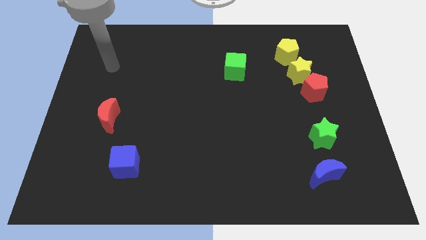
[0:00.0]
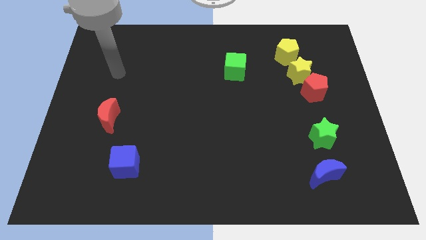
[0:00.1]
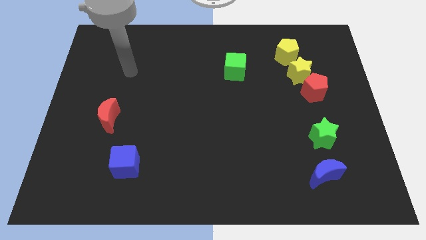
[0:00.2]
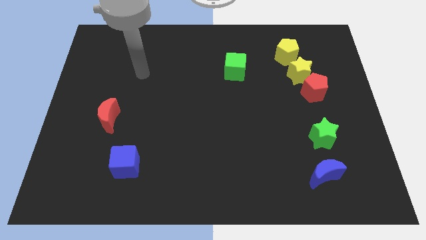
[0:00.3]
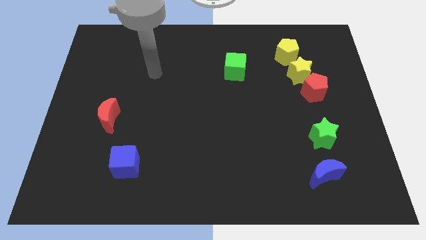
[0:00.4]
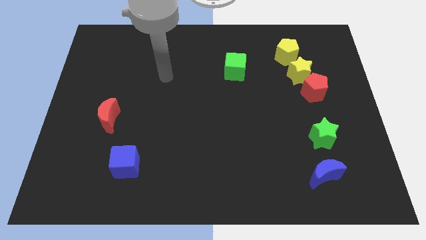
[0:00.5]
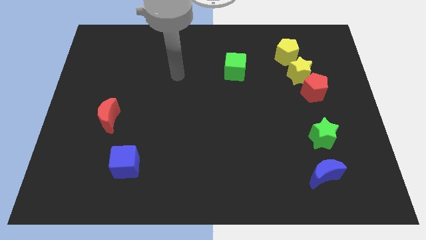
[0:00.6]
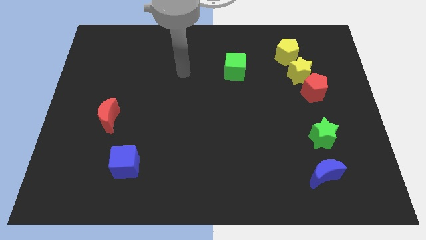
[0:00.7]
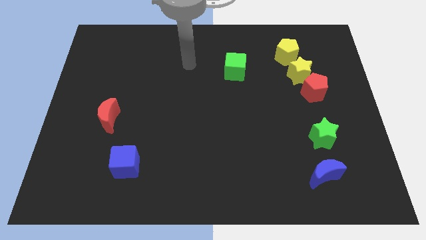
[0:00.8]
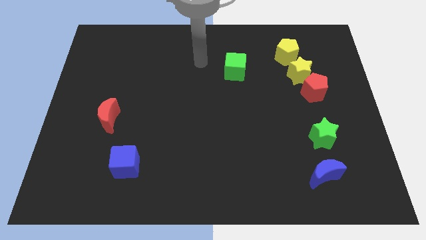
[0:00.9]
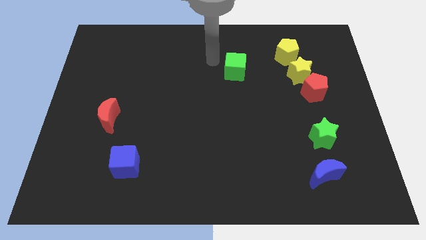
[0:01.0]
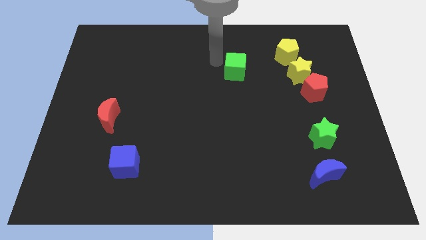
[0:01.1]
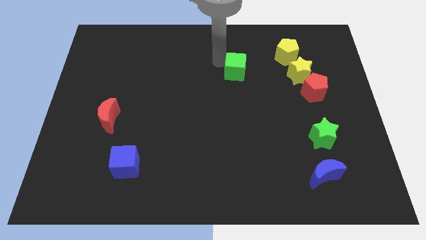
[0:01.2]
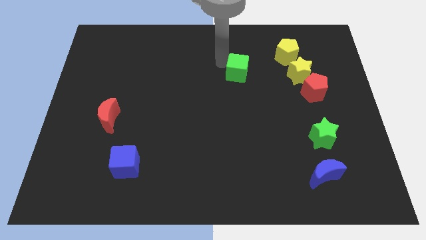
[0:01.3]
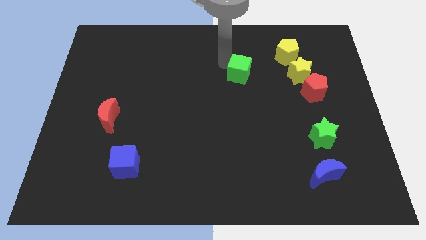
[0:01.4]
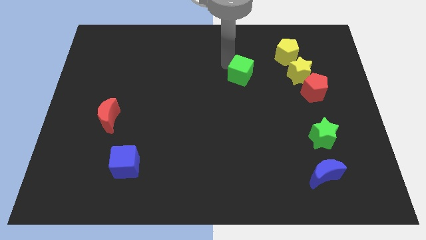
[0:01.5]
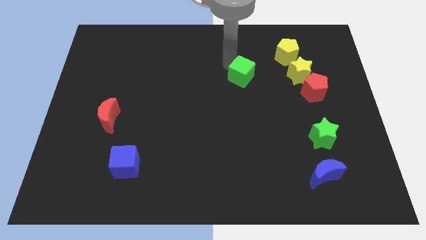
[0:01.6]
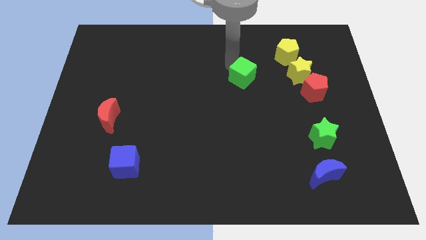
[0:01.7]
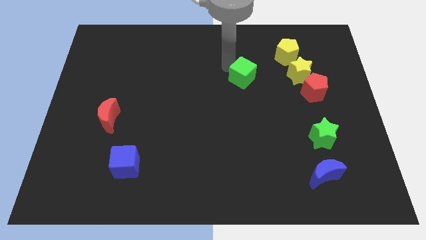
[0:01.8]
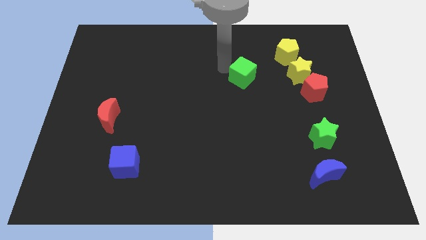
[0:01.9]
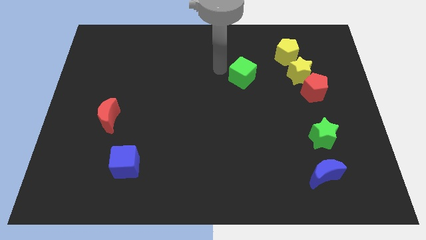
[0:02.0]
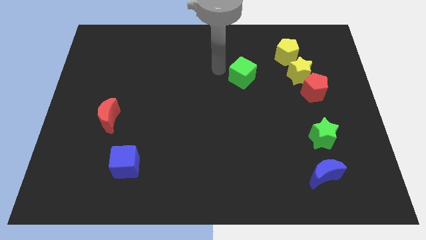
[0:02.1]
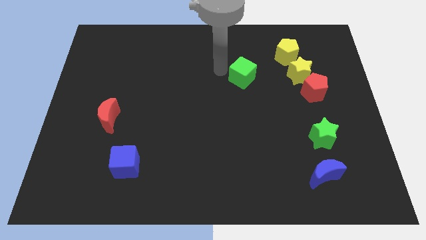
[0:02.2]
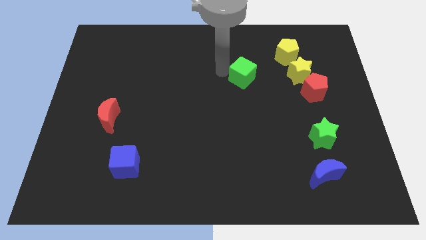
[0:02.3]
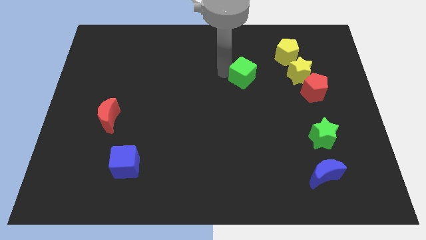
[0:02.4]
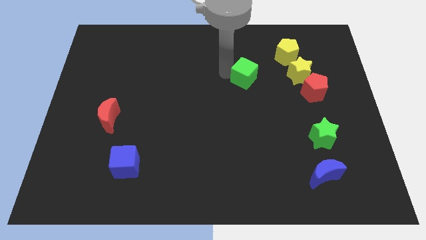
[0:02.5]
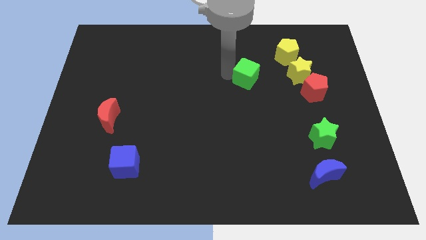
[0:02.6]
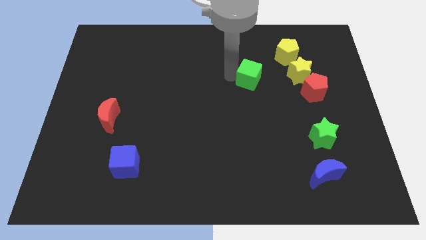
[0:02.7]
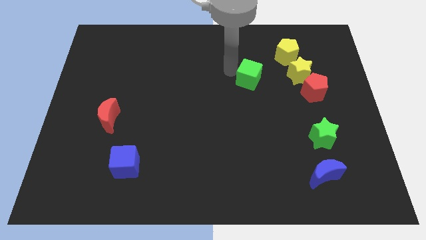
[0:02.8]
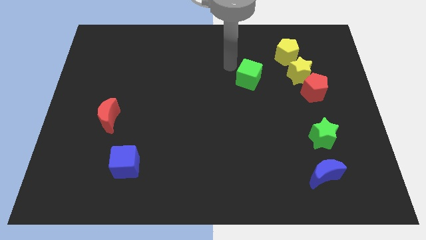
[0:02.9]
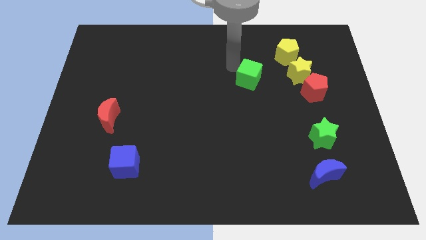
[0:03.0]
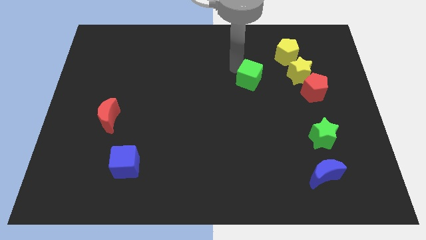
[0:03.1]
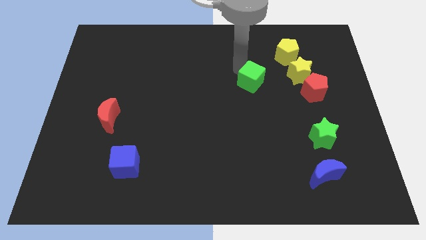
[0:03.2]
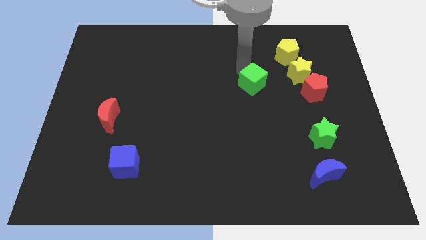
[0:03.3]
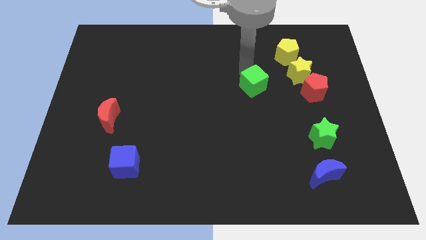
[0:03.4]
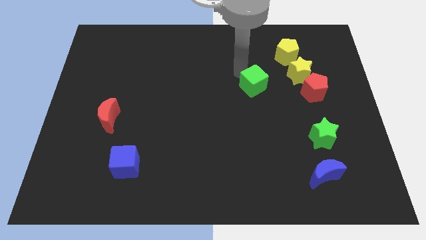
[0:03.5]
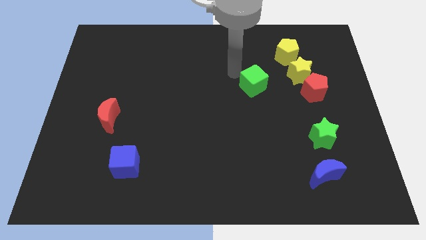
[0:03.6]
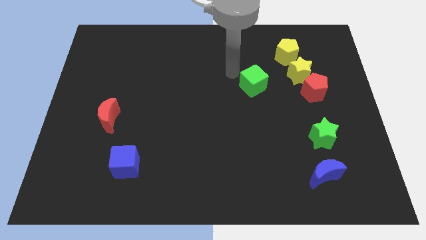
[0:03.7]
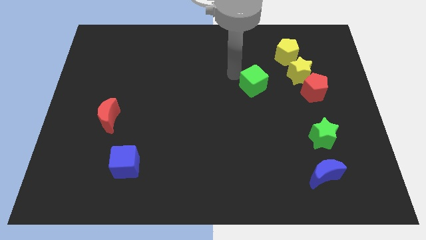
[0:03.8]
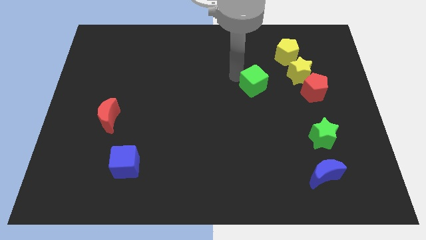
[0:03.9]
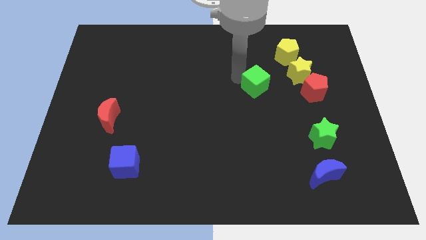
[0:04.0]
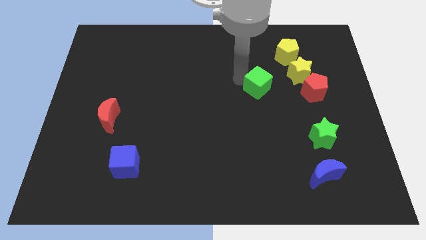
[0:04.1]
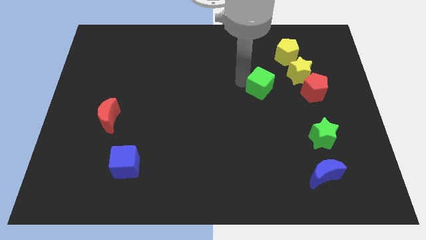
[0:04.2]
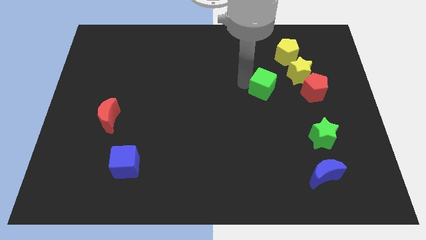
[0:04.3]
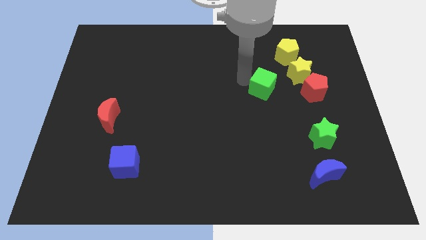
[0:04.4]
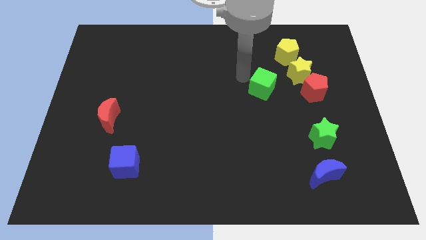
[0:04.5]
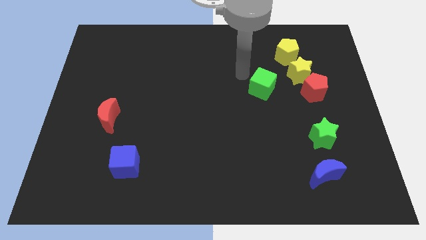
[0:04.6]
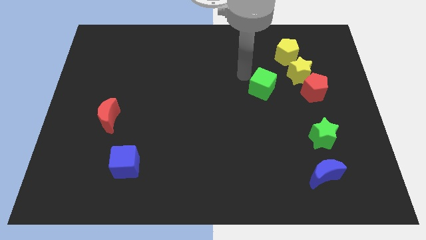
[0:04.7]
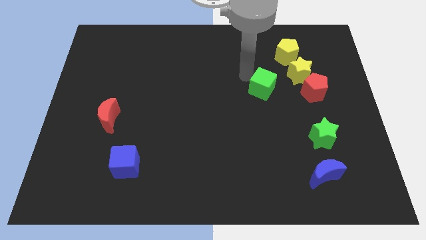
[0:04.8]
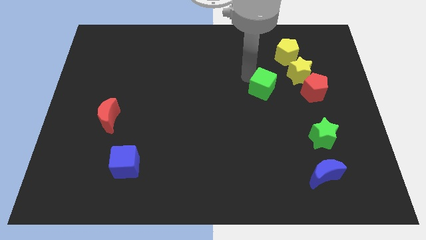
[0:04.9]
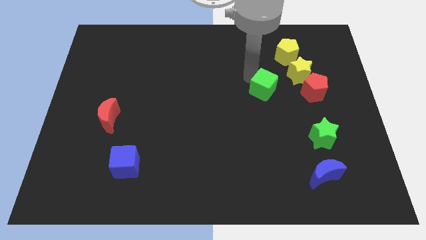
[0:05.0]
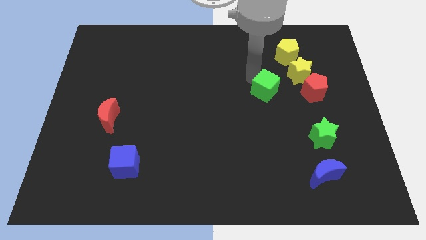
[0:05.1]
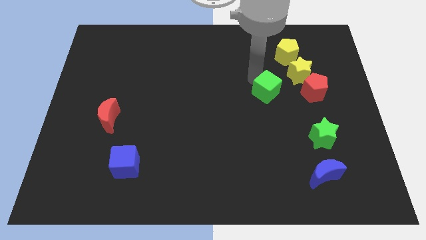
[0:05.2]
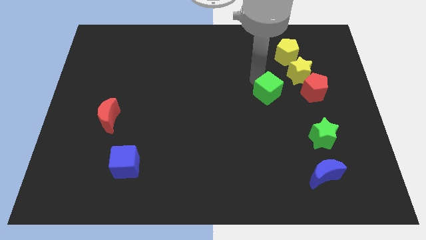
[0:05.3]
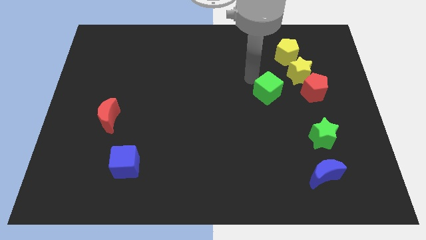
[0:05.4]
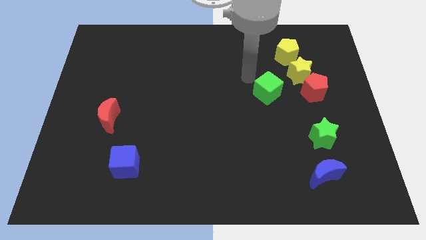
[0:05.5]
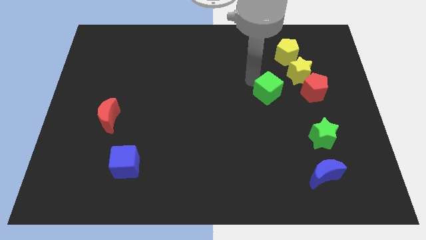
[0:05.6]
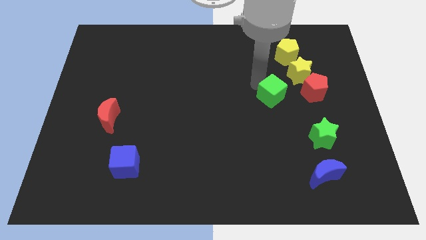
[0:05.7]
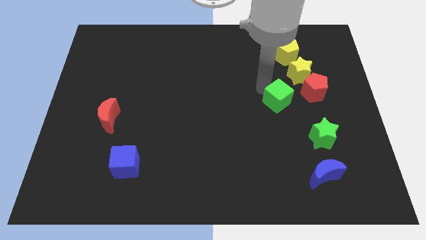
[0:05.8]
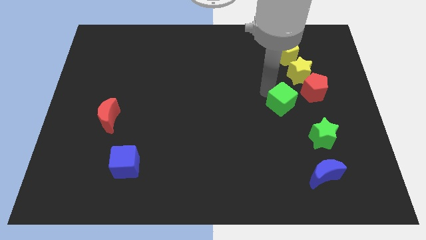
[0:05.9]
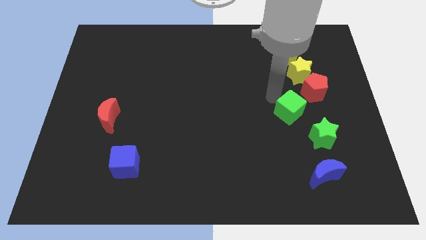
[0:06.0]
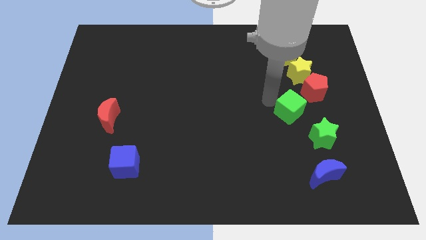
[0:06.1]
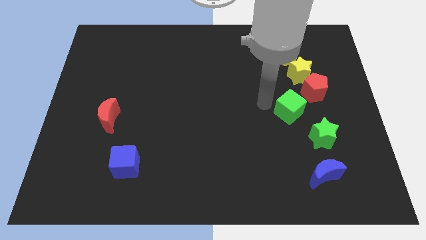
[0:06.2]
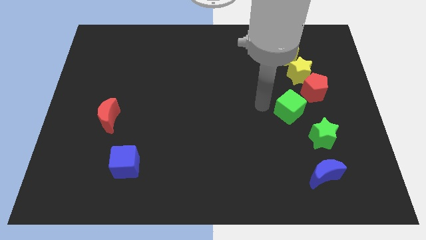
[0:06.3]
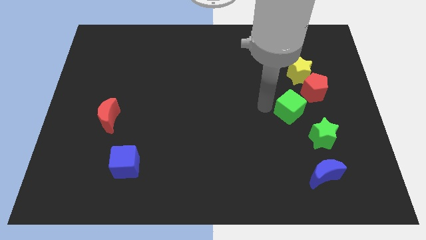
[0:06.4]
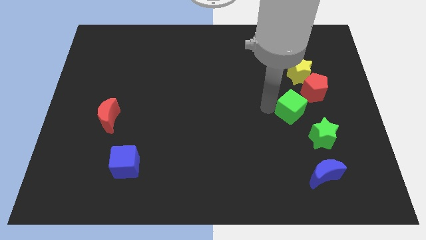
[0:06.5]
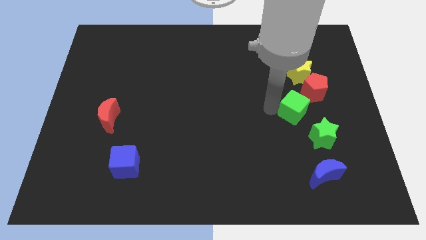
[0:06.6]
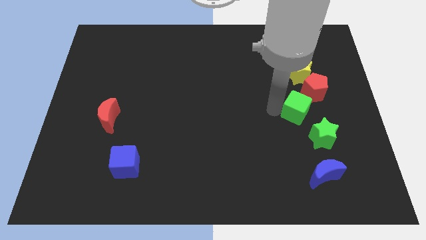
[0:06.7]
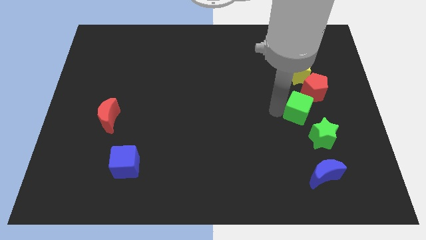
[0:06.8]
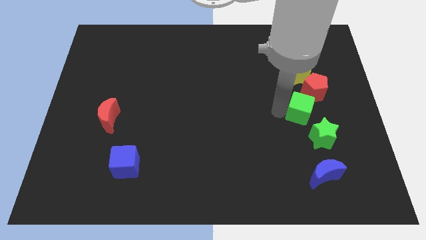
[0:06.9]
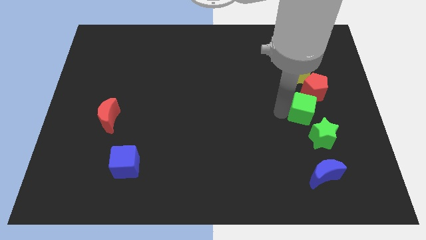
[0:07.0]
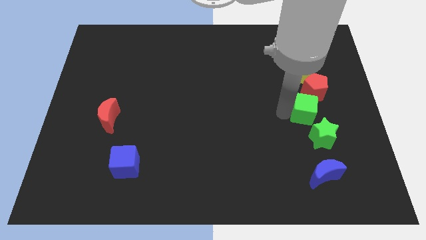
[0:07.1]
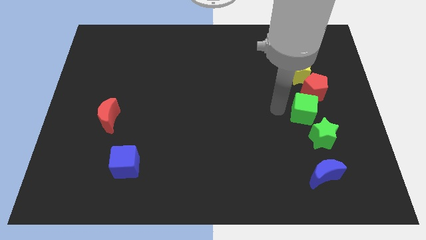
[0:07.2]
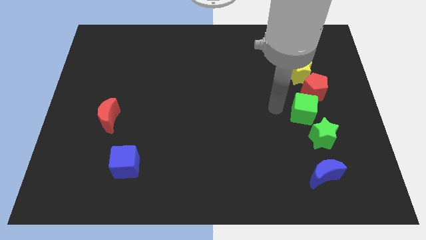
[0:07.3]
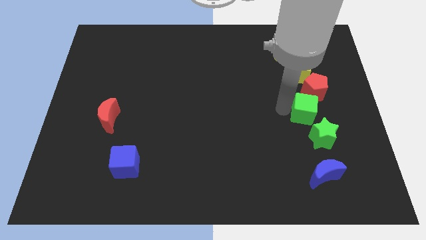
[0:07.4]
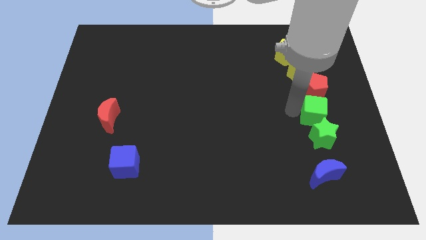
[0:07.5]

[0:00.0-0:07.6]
push the green cube diagonally up and to the right of the green star

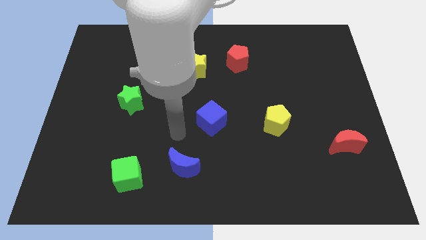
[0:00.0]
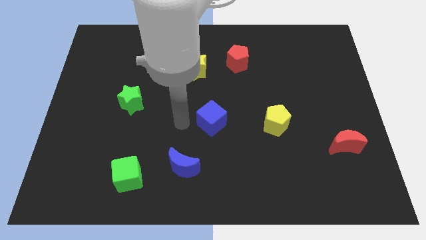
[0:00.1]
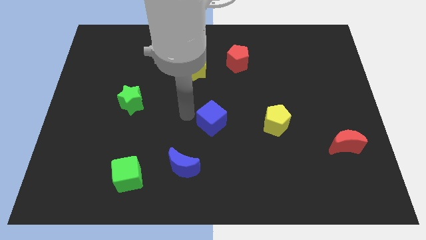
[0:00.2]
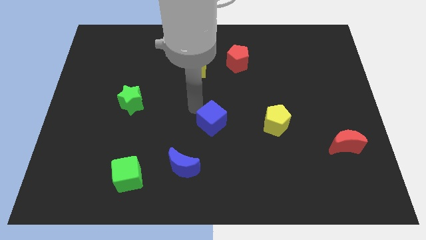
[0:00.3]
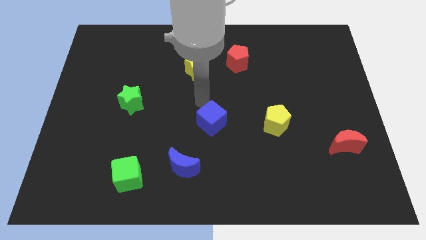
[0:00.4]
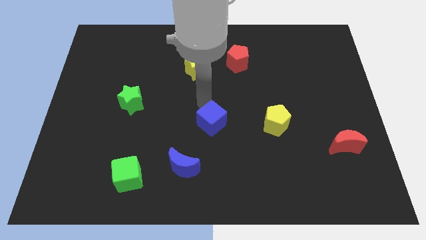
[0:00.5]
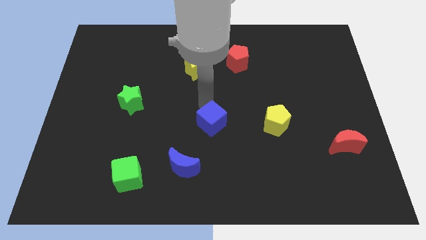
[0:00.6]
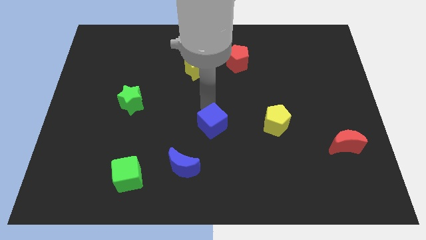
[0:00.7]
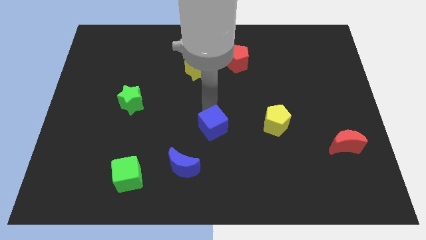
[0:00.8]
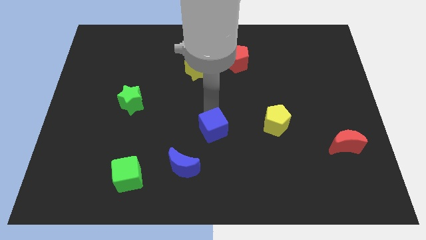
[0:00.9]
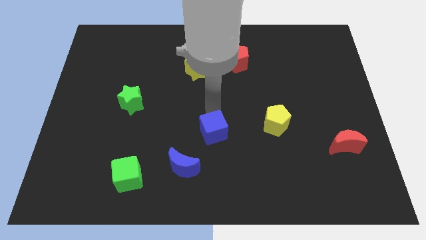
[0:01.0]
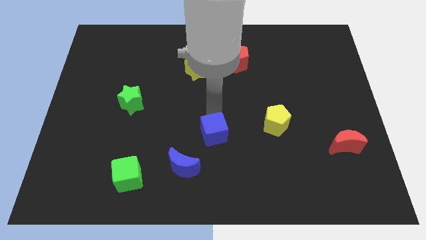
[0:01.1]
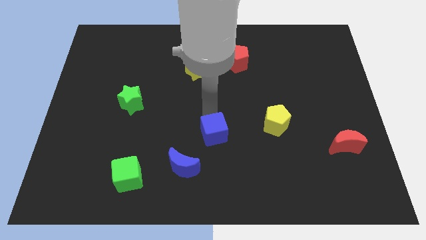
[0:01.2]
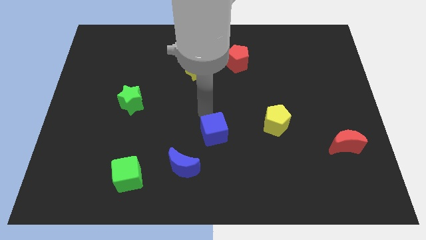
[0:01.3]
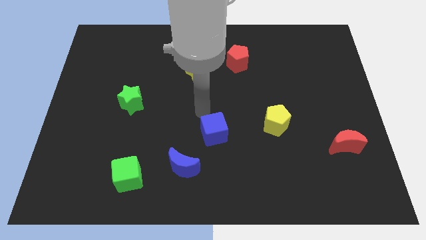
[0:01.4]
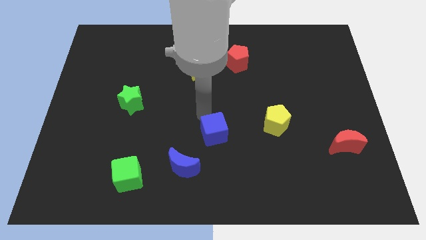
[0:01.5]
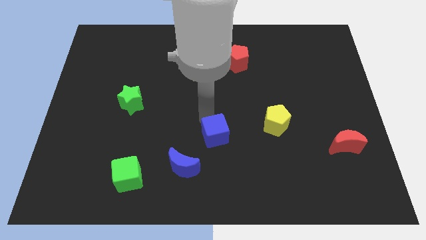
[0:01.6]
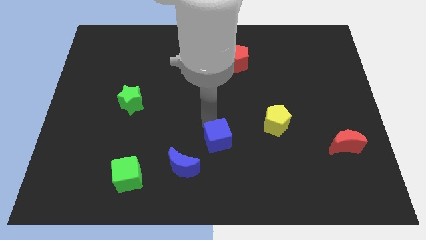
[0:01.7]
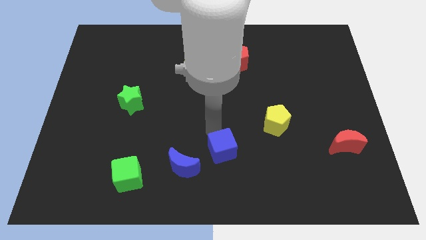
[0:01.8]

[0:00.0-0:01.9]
put the blue cube to the right side of the blue moon
